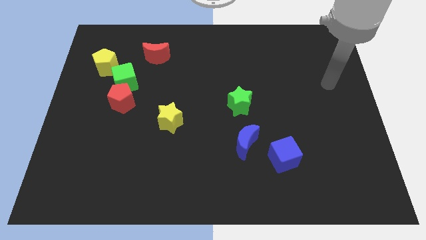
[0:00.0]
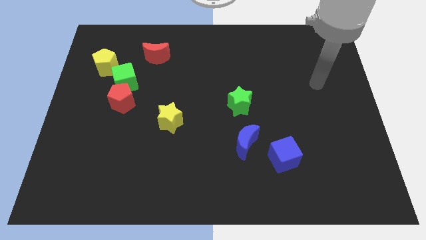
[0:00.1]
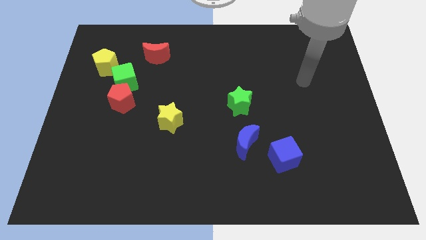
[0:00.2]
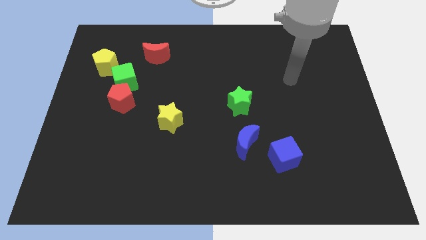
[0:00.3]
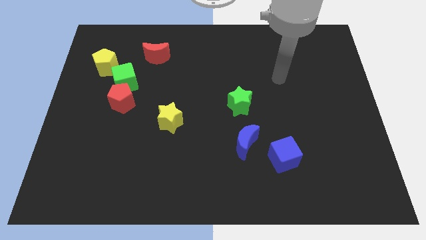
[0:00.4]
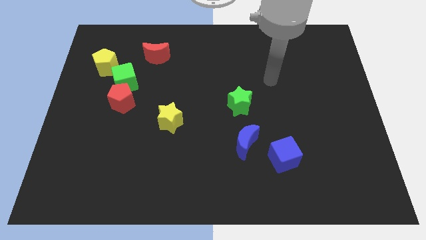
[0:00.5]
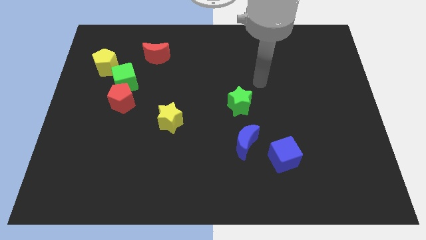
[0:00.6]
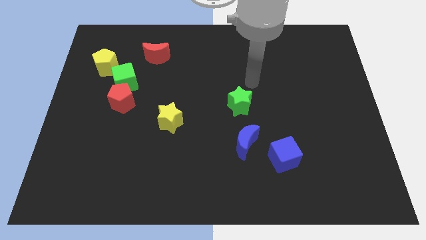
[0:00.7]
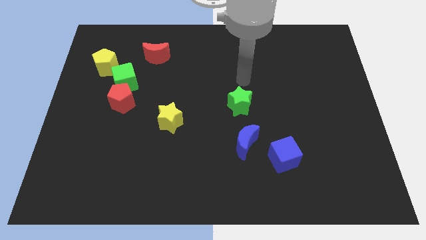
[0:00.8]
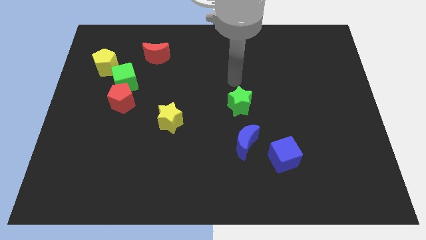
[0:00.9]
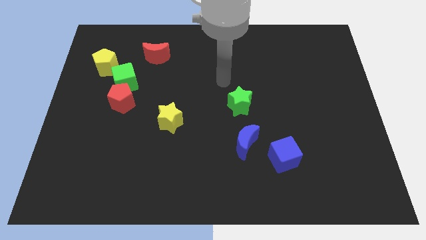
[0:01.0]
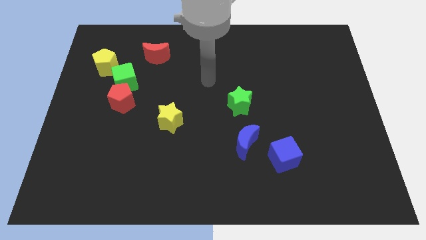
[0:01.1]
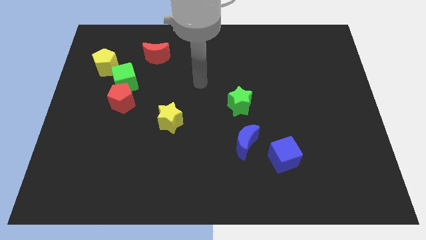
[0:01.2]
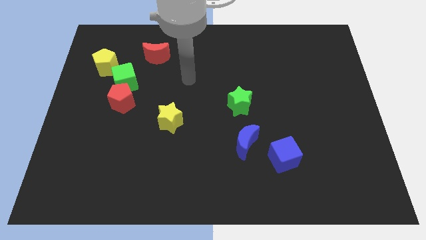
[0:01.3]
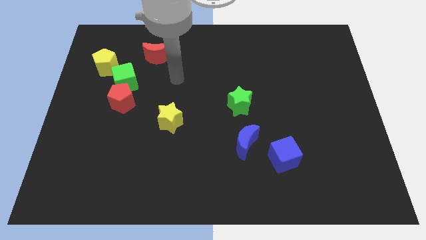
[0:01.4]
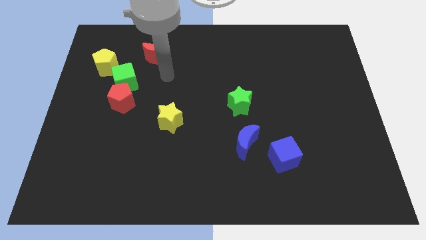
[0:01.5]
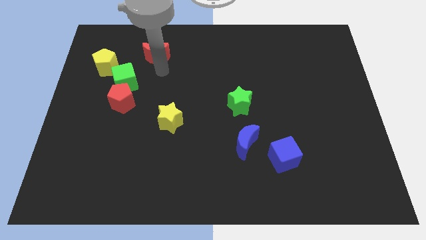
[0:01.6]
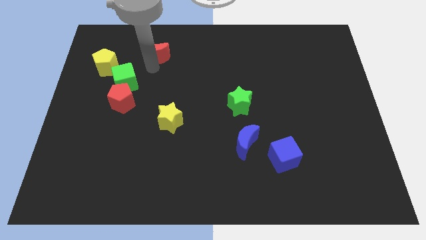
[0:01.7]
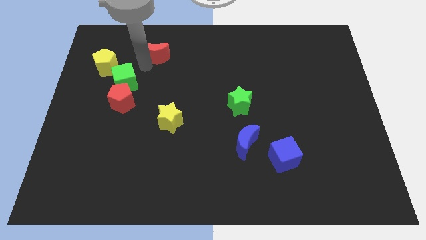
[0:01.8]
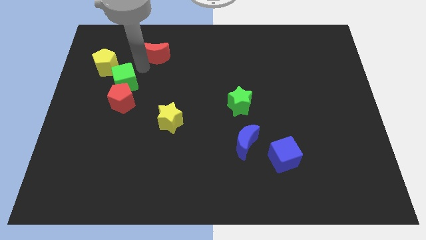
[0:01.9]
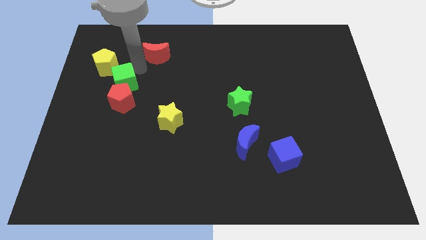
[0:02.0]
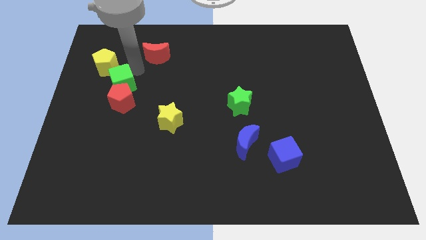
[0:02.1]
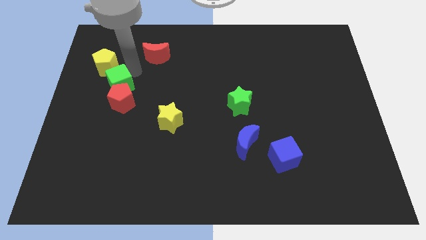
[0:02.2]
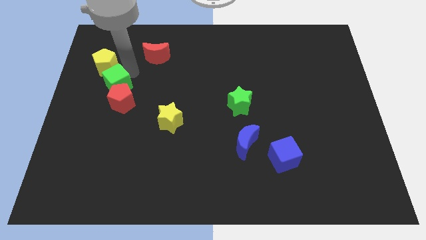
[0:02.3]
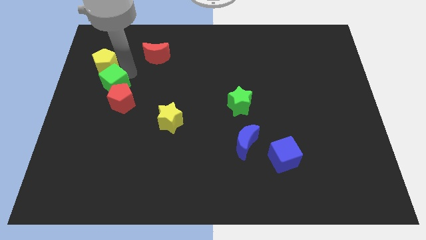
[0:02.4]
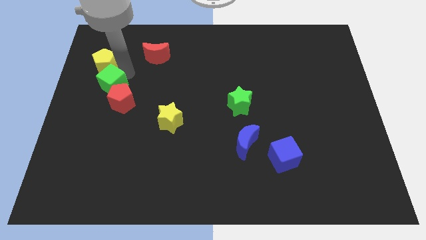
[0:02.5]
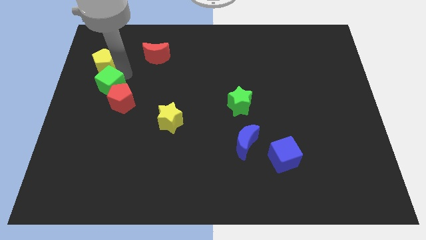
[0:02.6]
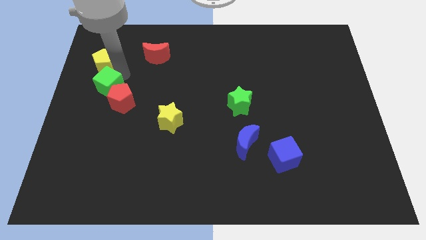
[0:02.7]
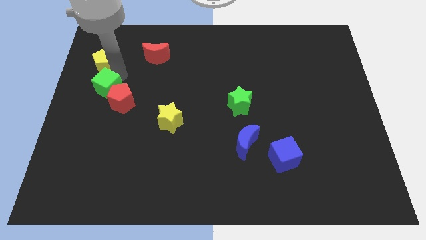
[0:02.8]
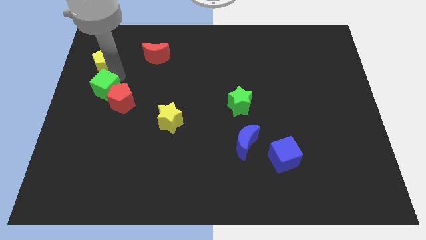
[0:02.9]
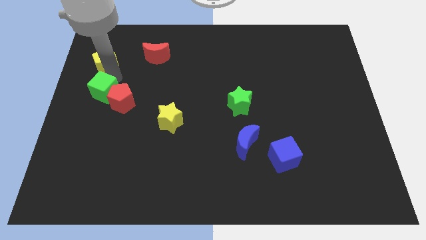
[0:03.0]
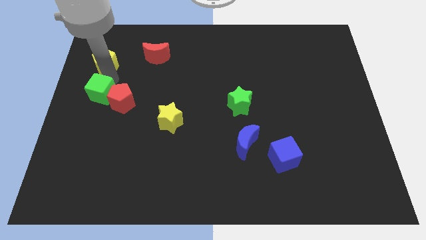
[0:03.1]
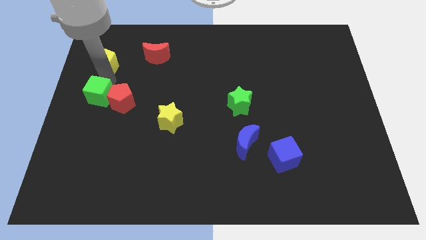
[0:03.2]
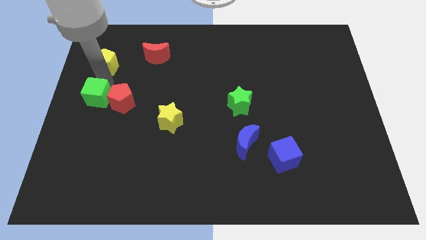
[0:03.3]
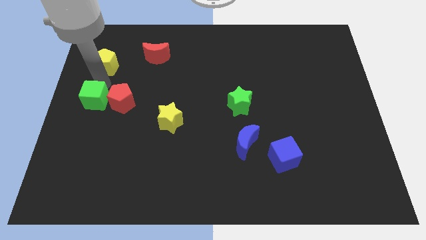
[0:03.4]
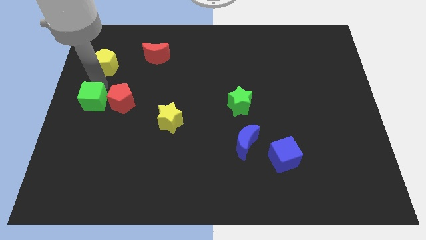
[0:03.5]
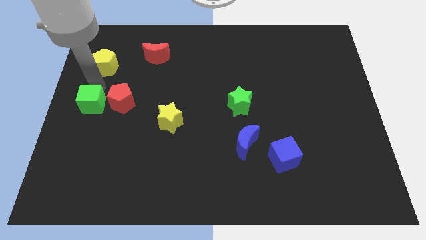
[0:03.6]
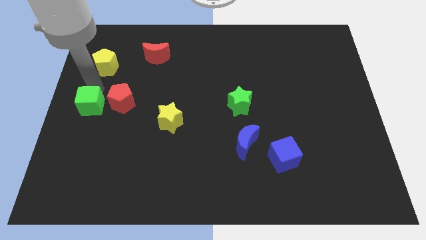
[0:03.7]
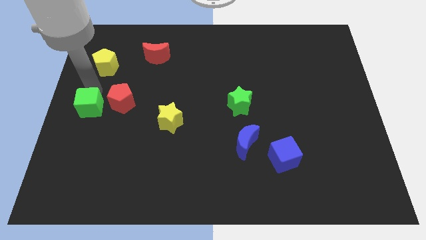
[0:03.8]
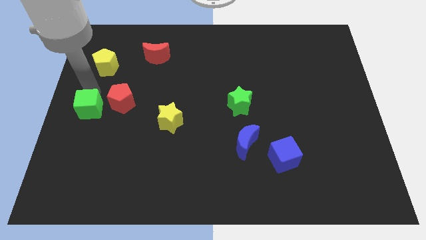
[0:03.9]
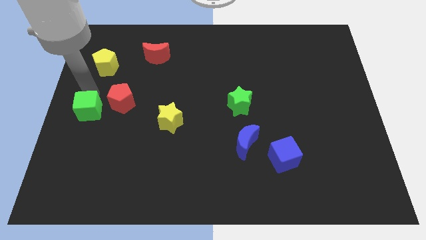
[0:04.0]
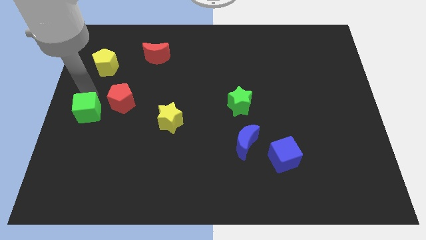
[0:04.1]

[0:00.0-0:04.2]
slightly move the green cube down

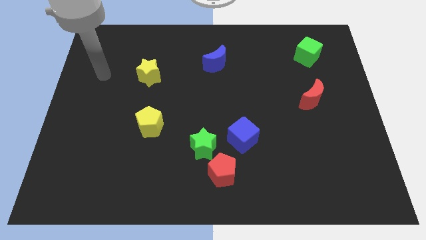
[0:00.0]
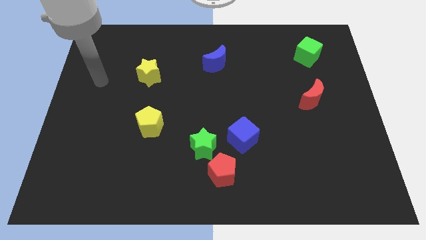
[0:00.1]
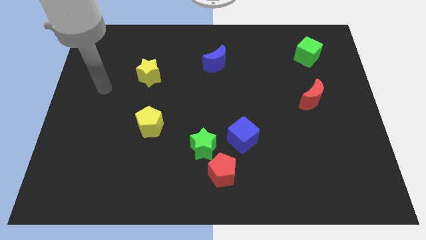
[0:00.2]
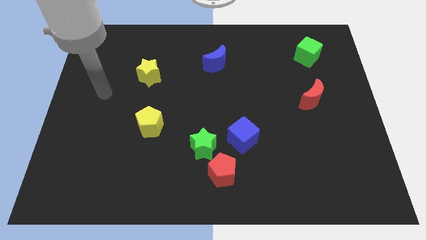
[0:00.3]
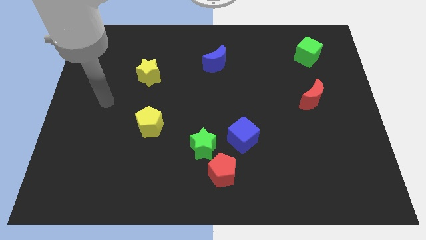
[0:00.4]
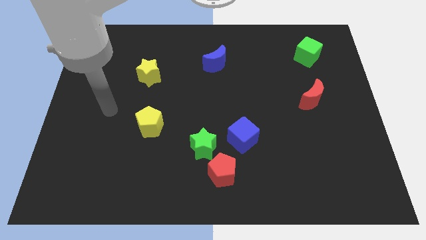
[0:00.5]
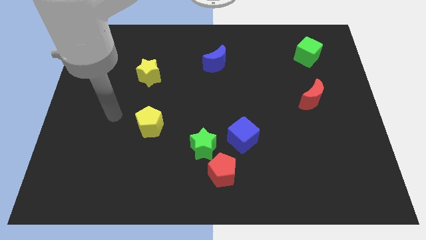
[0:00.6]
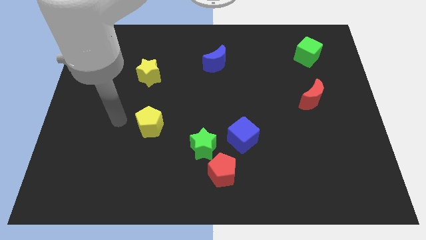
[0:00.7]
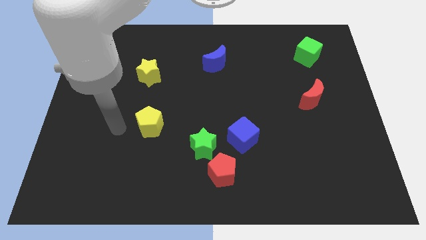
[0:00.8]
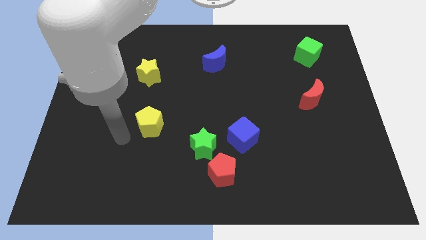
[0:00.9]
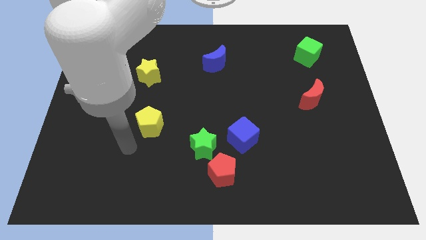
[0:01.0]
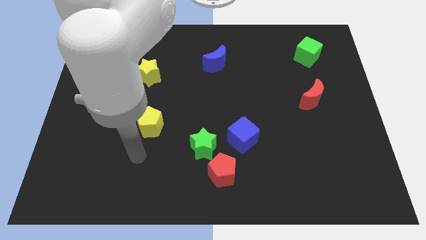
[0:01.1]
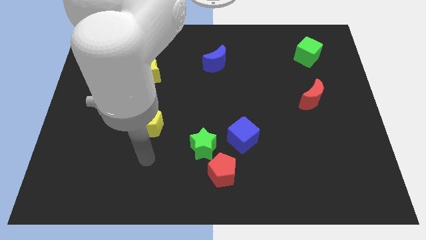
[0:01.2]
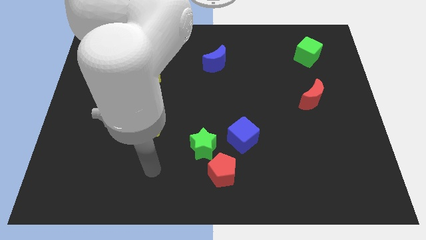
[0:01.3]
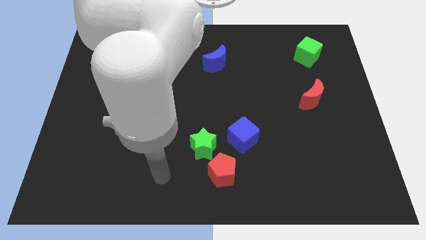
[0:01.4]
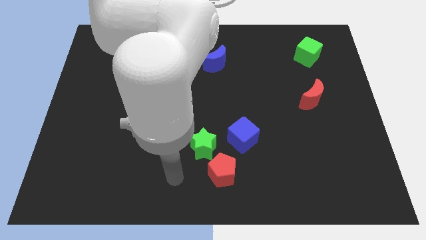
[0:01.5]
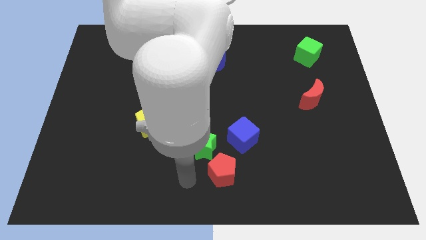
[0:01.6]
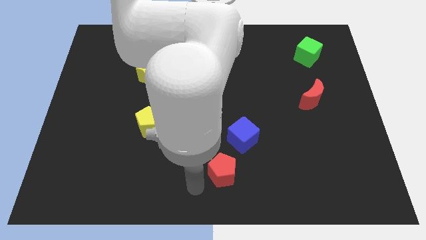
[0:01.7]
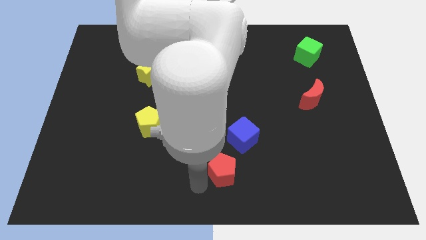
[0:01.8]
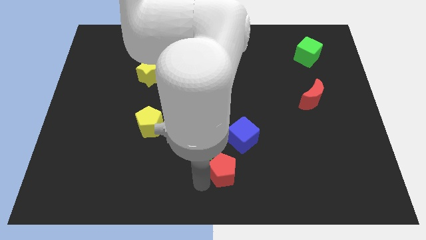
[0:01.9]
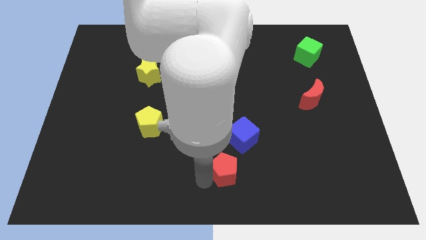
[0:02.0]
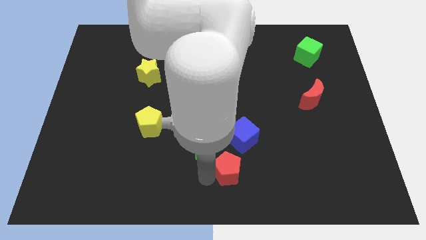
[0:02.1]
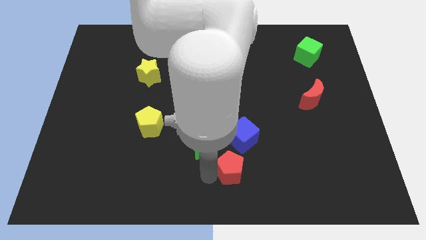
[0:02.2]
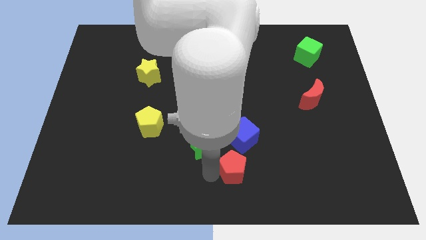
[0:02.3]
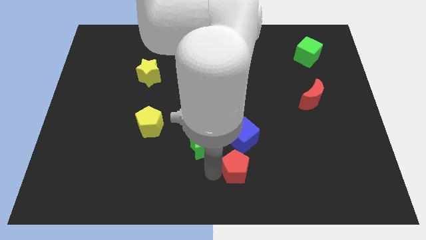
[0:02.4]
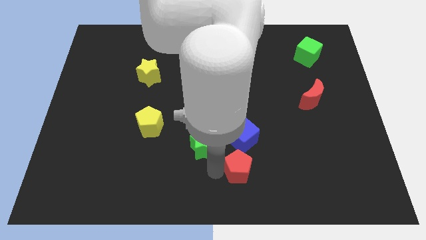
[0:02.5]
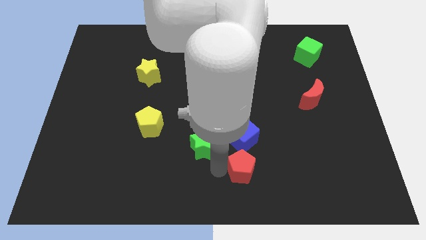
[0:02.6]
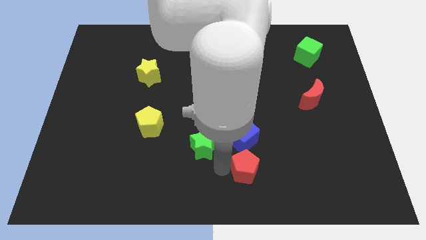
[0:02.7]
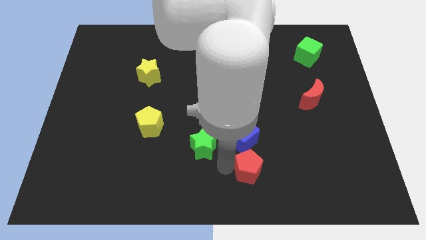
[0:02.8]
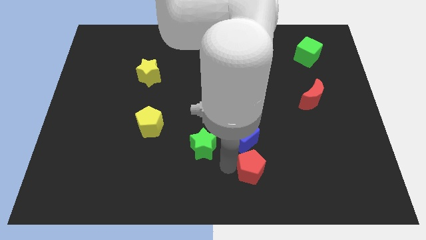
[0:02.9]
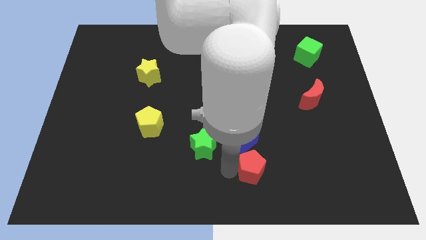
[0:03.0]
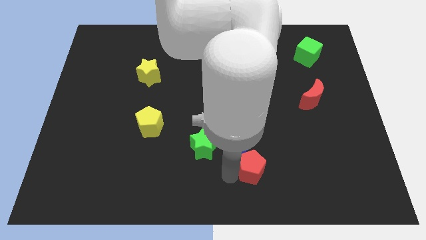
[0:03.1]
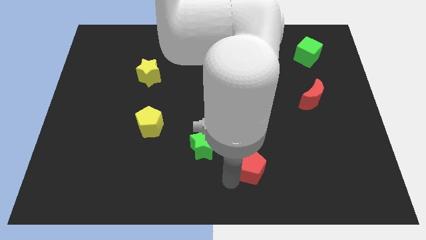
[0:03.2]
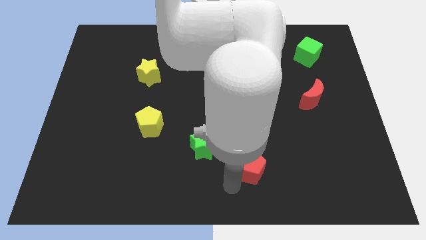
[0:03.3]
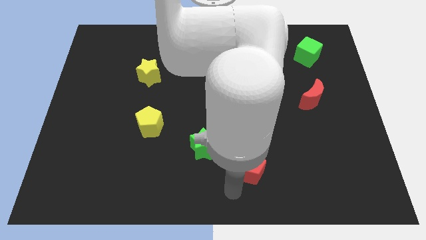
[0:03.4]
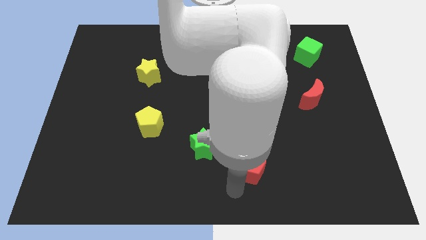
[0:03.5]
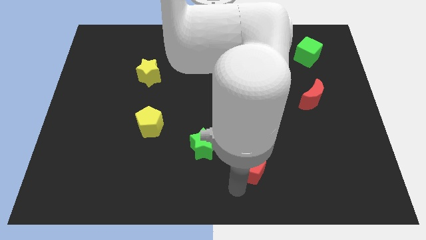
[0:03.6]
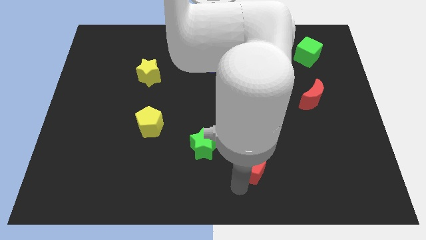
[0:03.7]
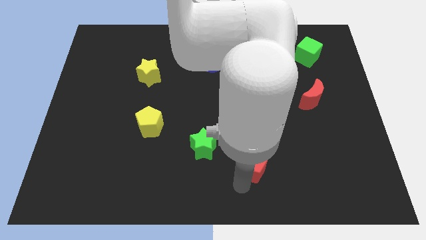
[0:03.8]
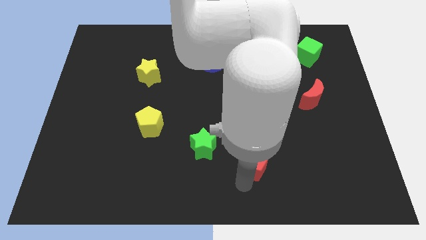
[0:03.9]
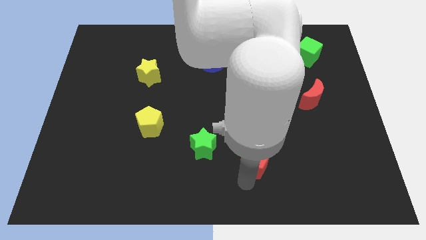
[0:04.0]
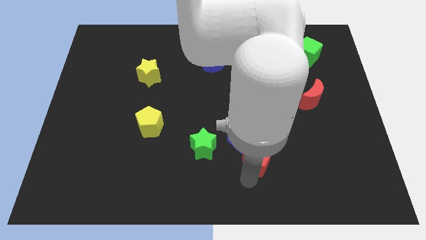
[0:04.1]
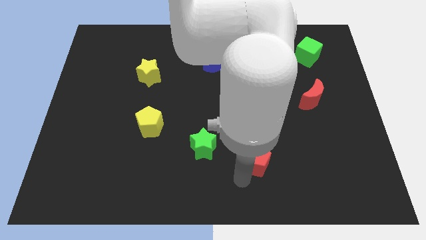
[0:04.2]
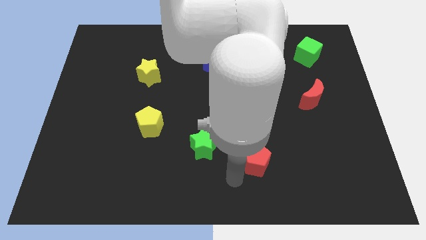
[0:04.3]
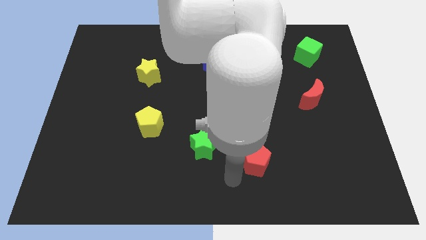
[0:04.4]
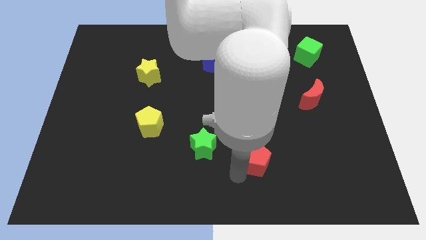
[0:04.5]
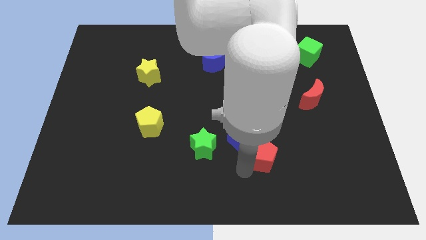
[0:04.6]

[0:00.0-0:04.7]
slightly move the red pentagon diagonally upwards and to the right
